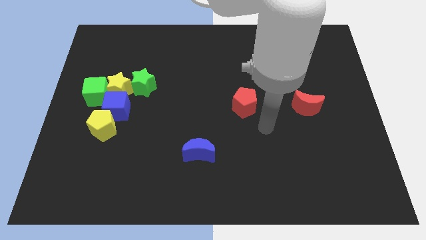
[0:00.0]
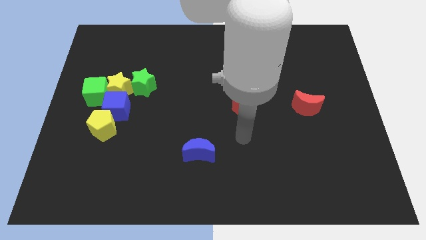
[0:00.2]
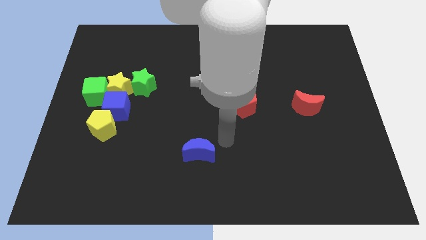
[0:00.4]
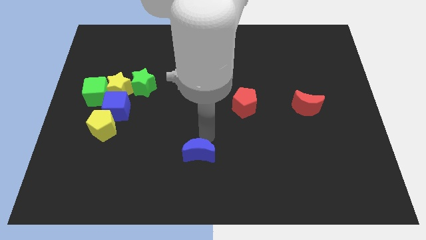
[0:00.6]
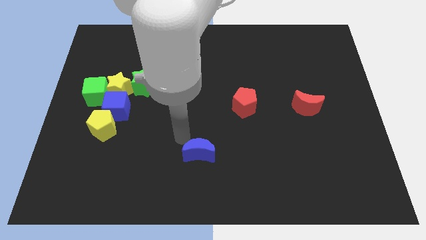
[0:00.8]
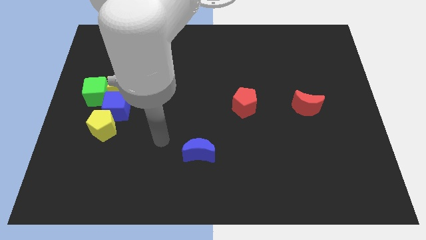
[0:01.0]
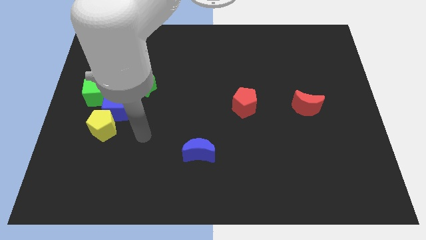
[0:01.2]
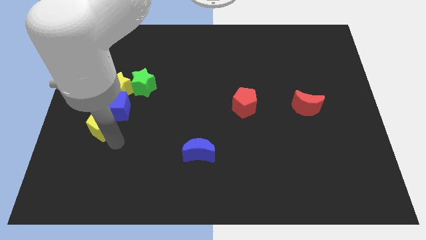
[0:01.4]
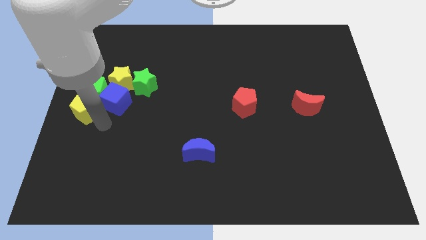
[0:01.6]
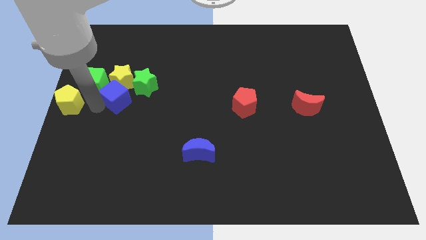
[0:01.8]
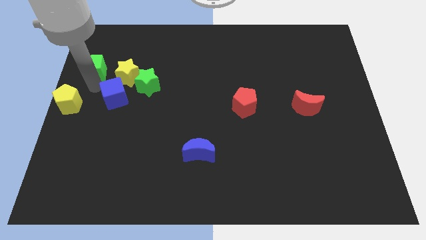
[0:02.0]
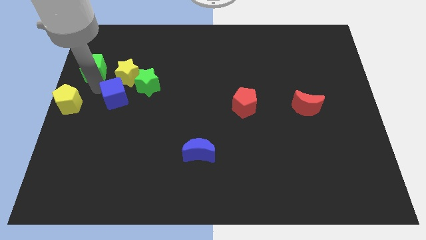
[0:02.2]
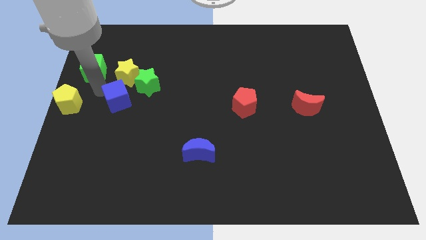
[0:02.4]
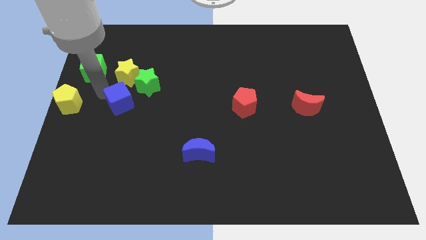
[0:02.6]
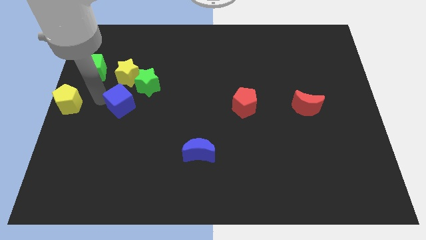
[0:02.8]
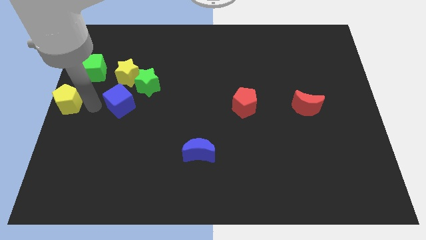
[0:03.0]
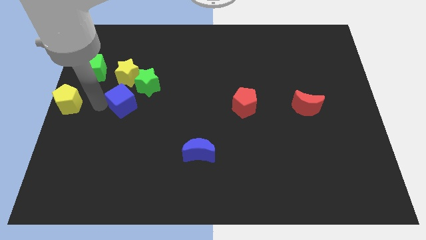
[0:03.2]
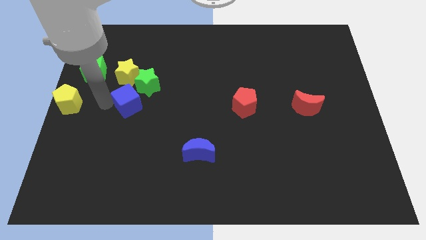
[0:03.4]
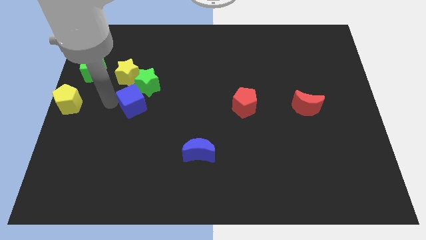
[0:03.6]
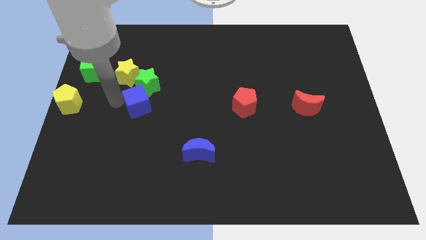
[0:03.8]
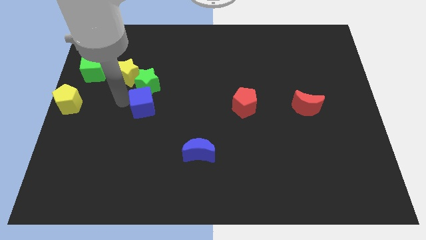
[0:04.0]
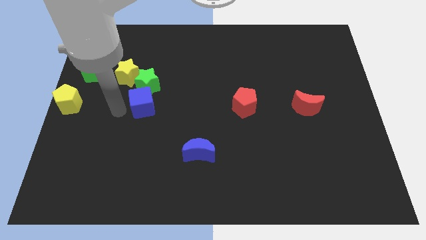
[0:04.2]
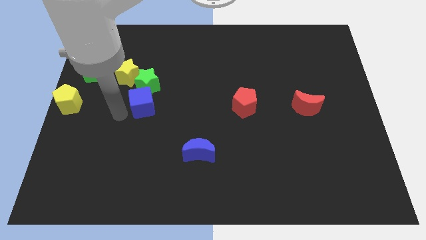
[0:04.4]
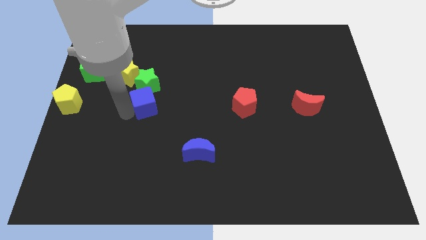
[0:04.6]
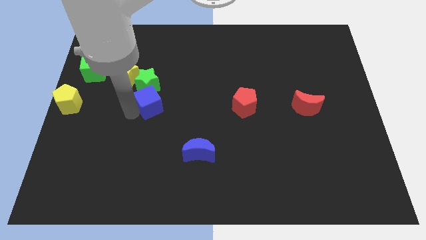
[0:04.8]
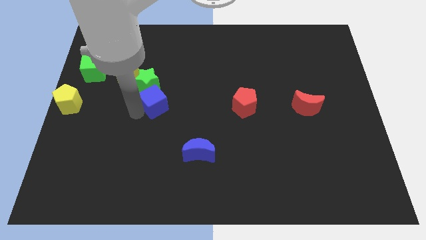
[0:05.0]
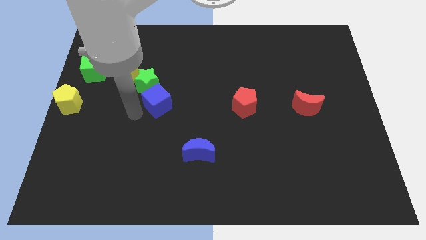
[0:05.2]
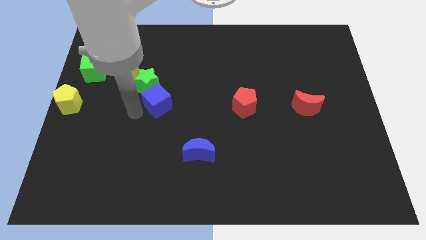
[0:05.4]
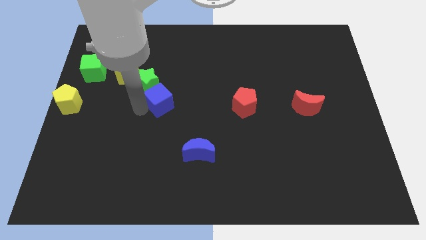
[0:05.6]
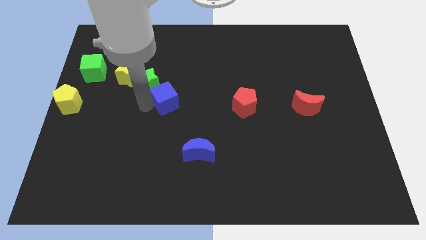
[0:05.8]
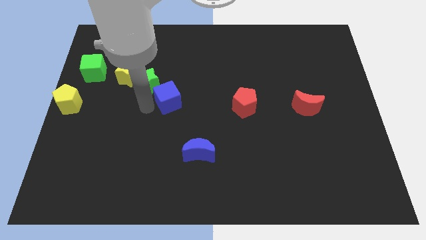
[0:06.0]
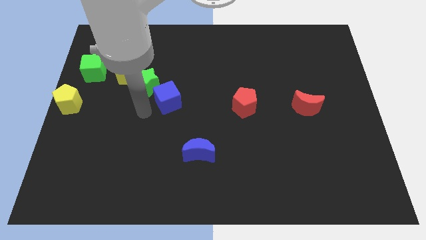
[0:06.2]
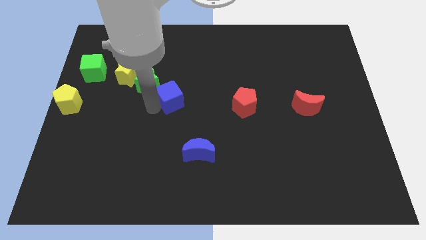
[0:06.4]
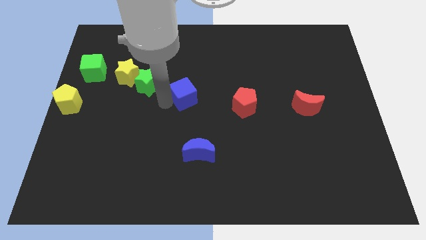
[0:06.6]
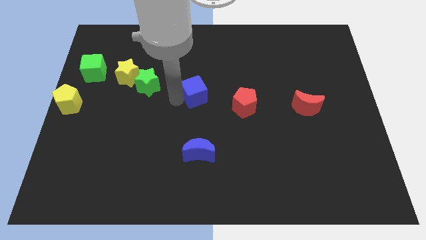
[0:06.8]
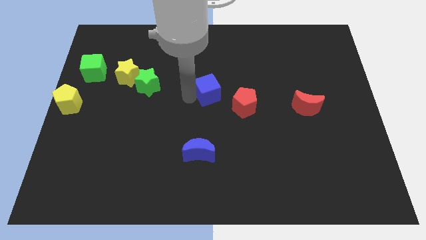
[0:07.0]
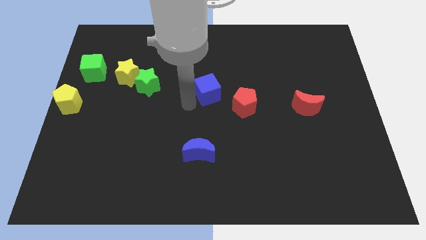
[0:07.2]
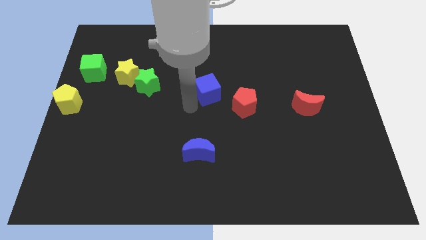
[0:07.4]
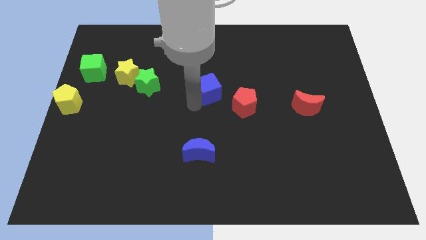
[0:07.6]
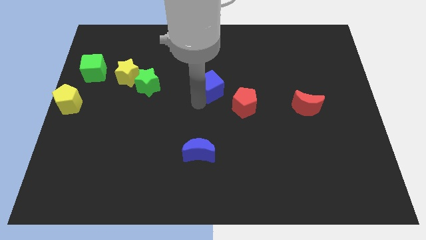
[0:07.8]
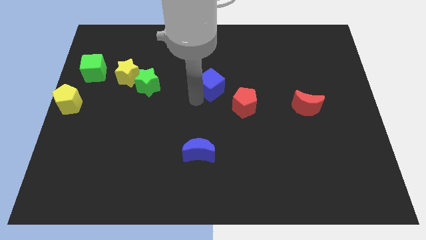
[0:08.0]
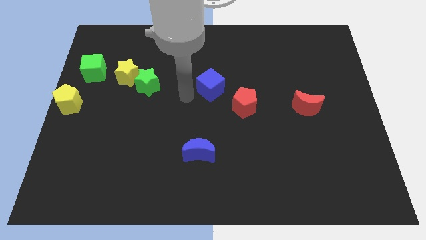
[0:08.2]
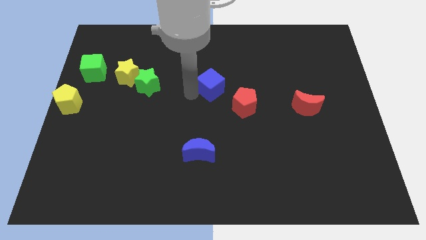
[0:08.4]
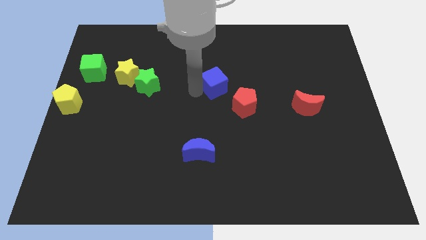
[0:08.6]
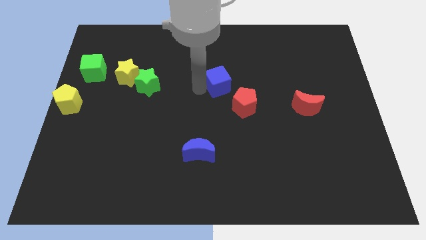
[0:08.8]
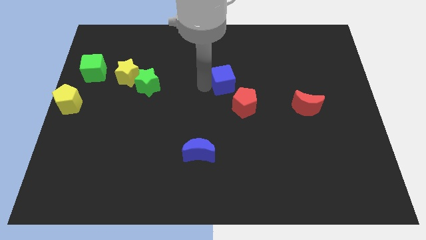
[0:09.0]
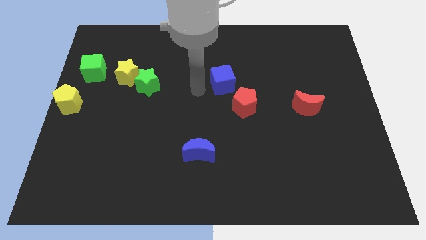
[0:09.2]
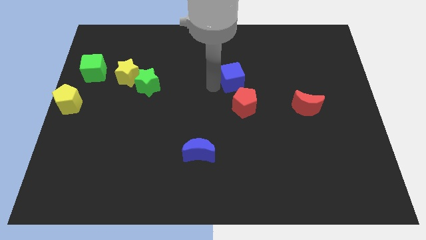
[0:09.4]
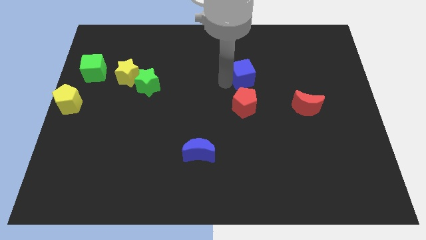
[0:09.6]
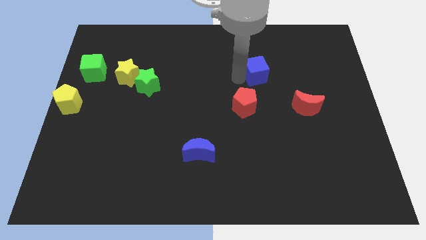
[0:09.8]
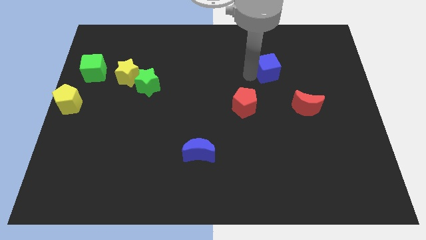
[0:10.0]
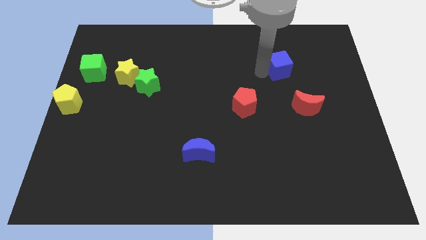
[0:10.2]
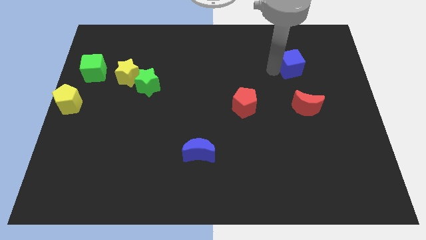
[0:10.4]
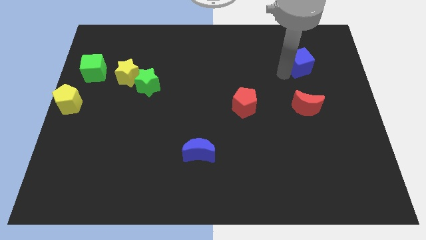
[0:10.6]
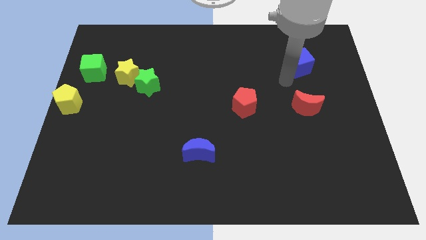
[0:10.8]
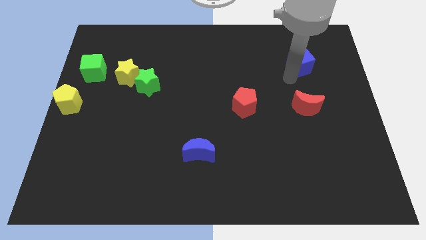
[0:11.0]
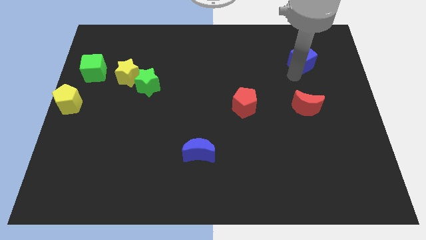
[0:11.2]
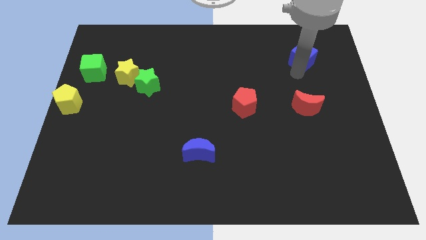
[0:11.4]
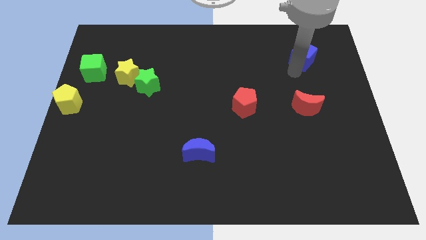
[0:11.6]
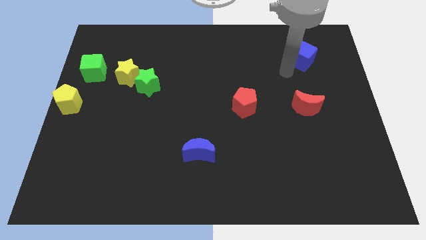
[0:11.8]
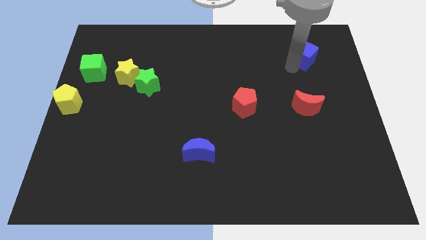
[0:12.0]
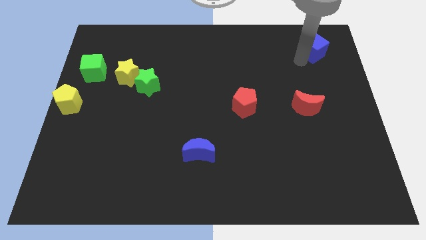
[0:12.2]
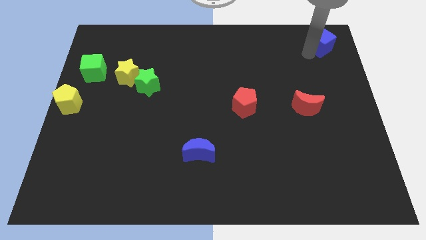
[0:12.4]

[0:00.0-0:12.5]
push the blue cube to the top right corner
